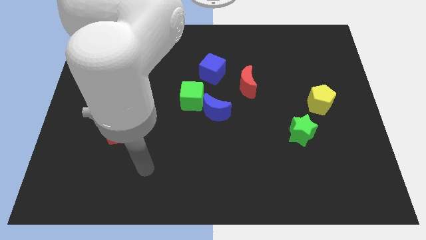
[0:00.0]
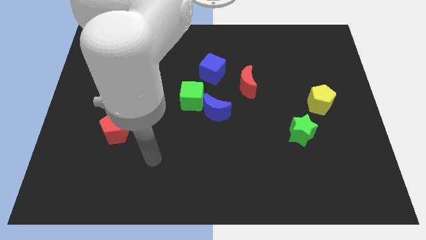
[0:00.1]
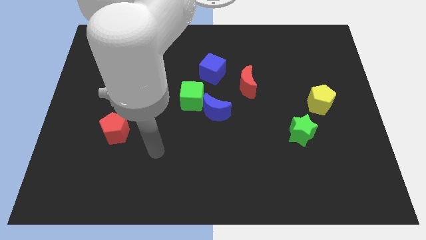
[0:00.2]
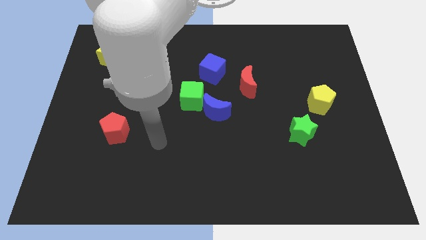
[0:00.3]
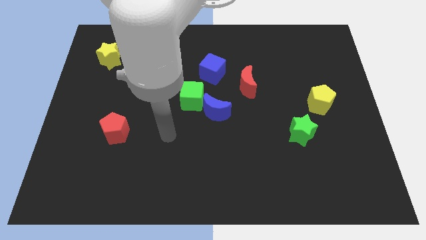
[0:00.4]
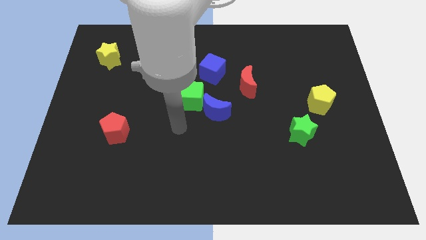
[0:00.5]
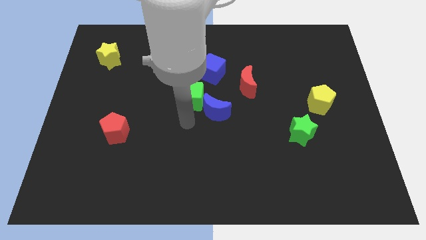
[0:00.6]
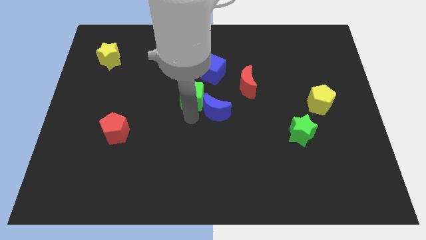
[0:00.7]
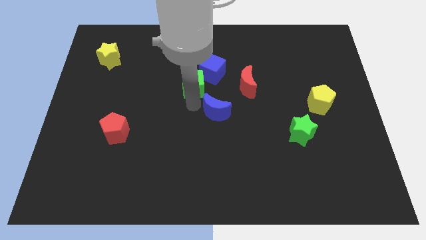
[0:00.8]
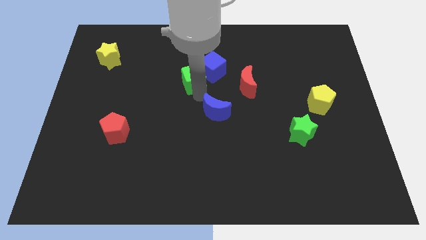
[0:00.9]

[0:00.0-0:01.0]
pull the blue moon apart from the green cube

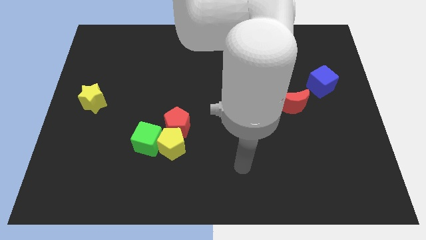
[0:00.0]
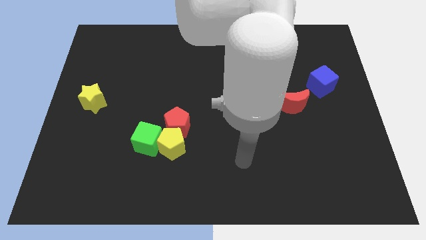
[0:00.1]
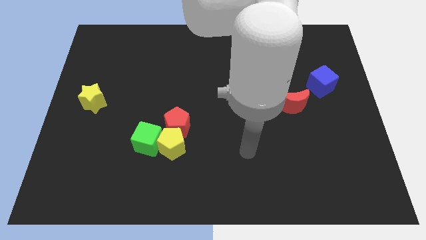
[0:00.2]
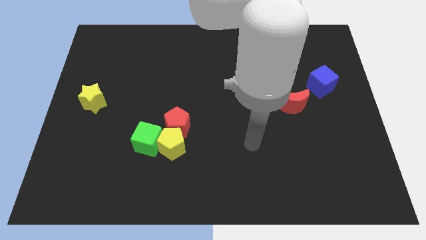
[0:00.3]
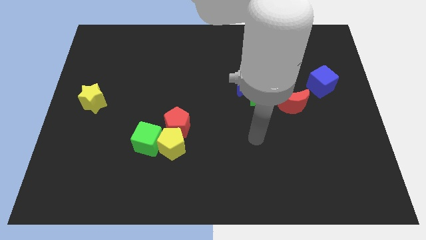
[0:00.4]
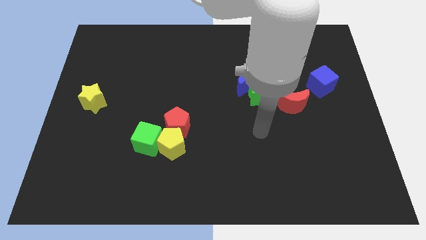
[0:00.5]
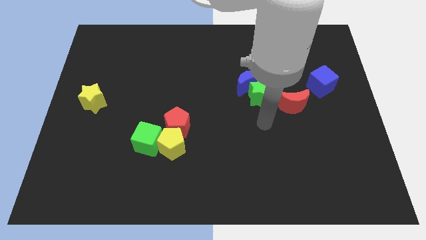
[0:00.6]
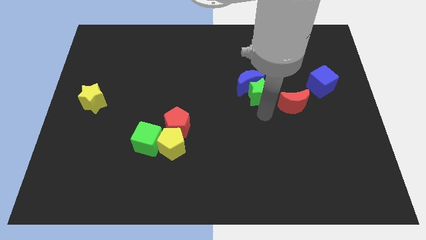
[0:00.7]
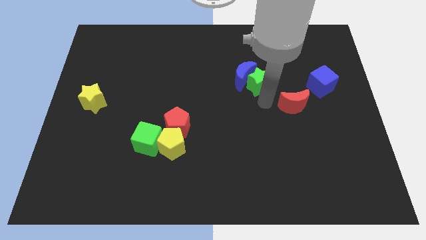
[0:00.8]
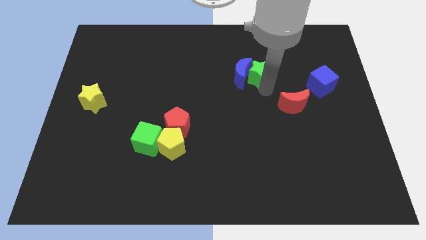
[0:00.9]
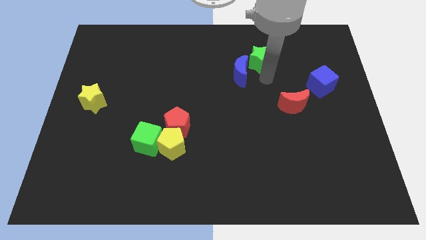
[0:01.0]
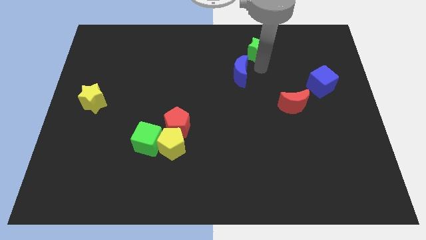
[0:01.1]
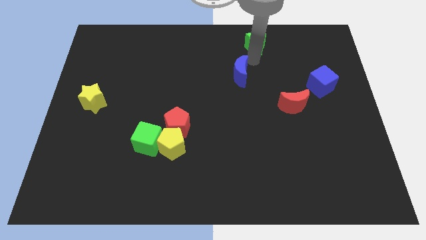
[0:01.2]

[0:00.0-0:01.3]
pull the blue moon apart from the green star

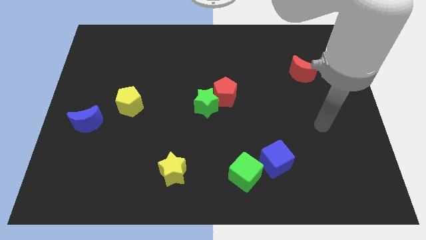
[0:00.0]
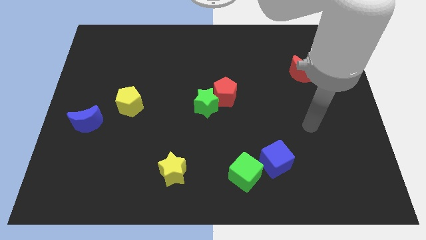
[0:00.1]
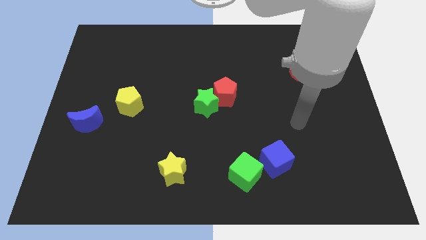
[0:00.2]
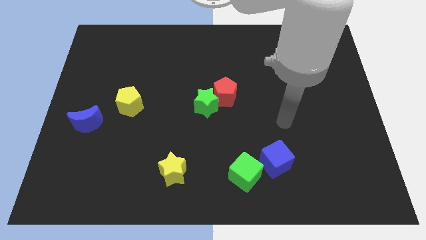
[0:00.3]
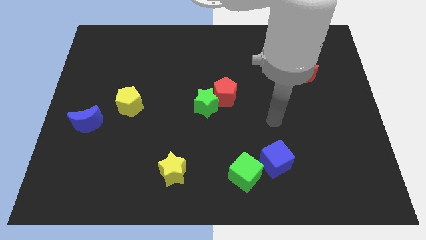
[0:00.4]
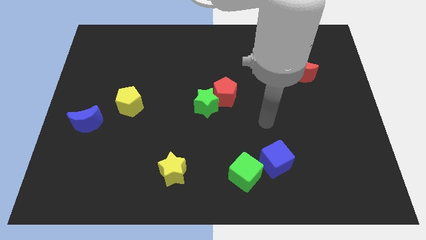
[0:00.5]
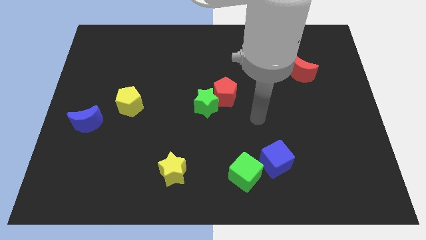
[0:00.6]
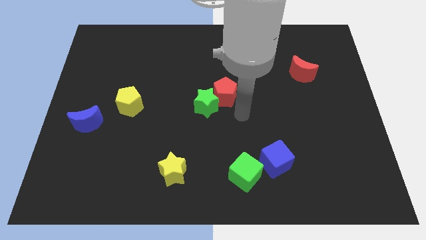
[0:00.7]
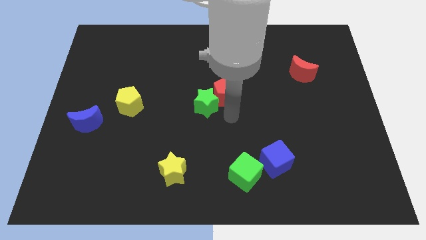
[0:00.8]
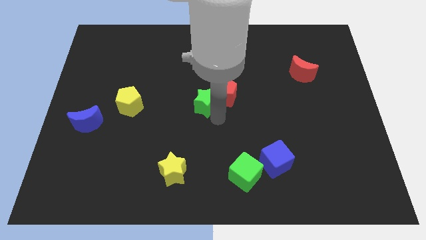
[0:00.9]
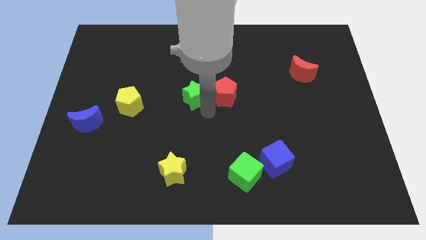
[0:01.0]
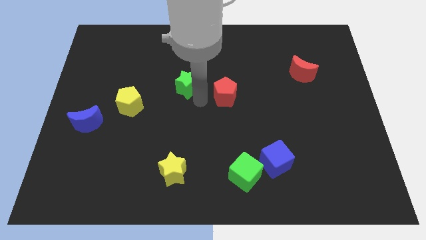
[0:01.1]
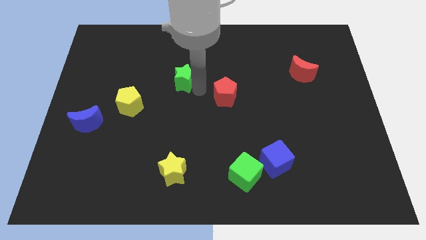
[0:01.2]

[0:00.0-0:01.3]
move the red pentagon away from the green star

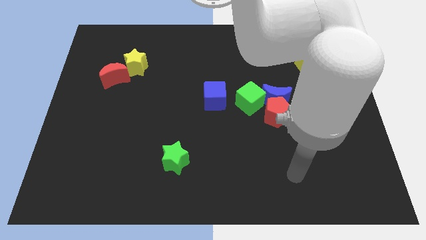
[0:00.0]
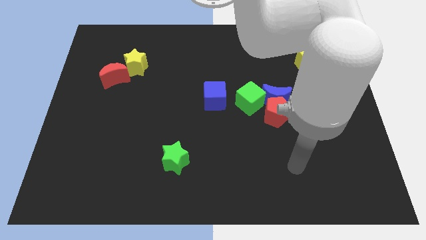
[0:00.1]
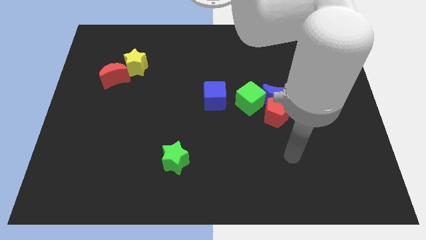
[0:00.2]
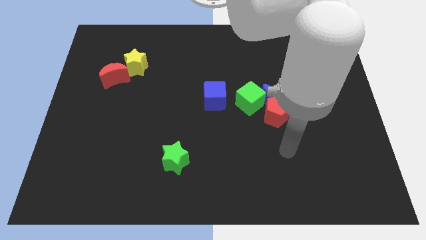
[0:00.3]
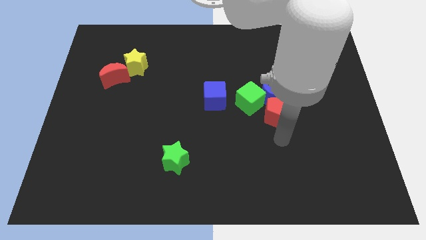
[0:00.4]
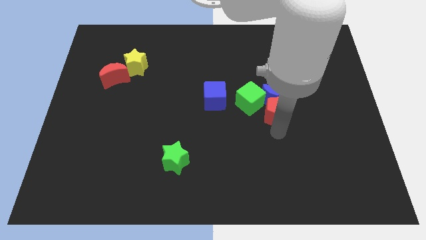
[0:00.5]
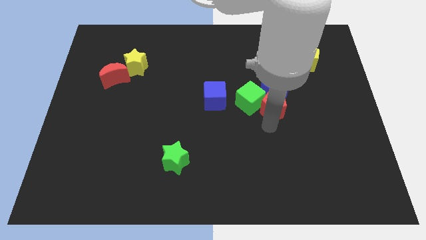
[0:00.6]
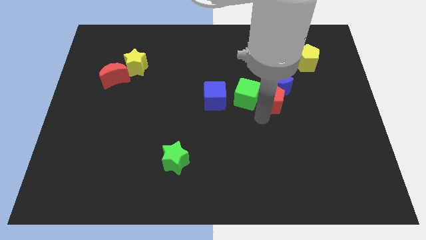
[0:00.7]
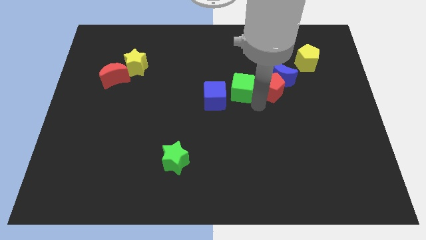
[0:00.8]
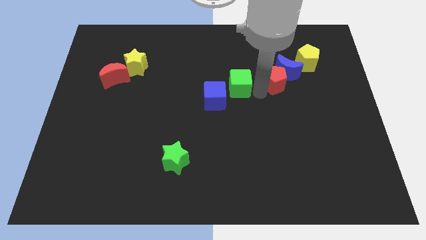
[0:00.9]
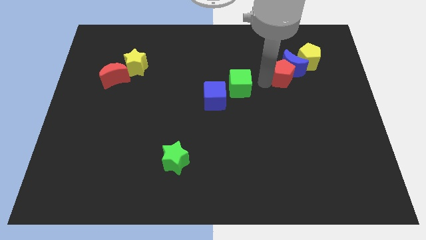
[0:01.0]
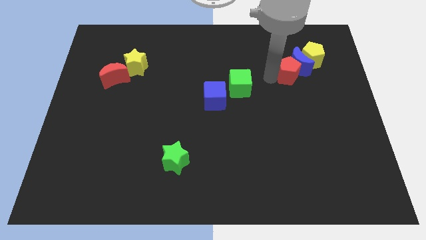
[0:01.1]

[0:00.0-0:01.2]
separate the blue moon from the red pentagon and green cube

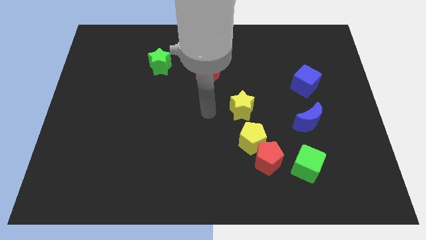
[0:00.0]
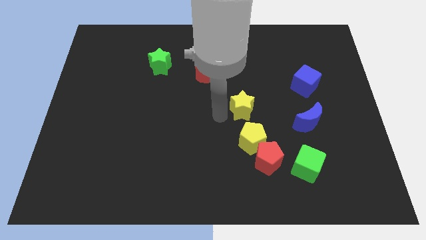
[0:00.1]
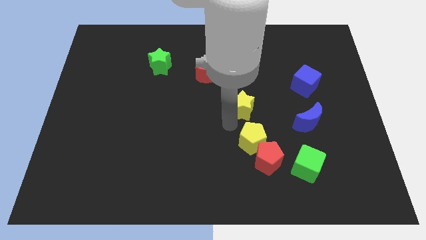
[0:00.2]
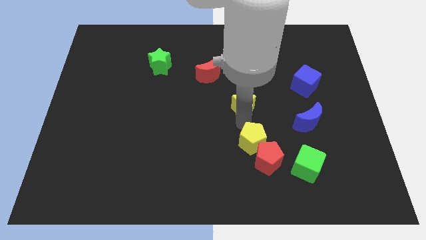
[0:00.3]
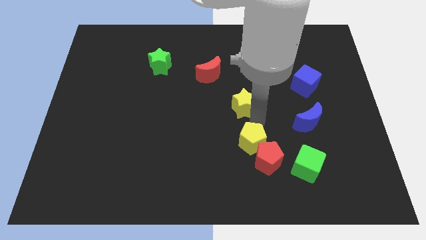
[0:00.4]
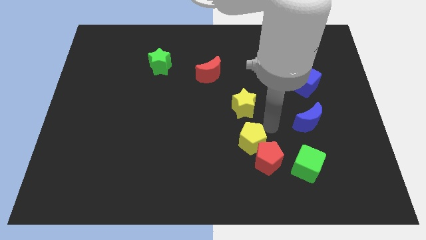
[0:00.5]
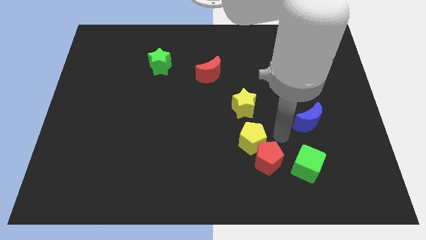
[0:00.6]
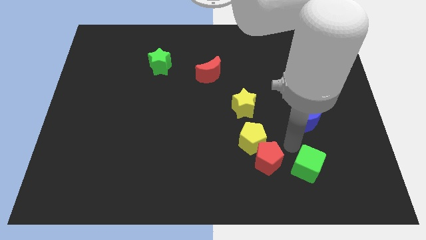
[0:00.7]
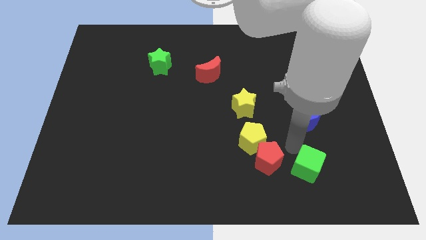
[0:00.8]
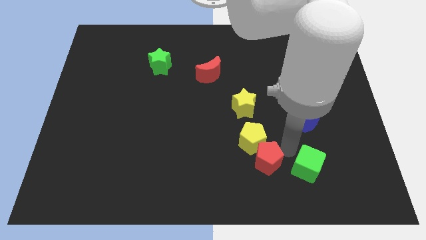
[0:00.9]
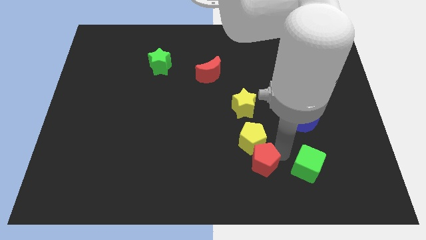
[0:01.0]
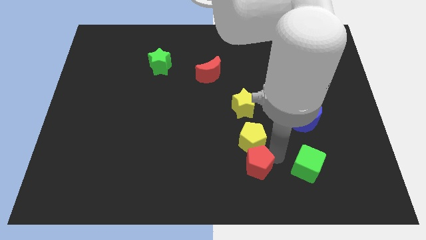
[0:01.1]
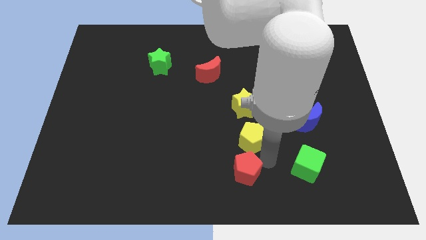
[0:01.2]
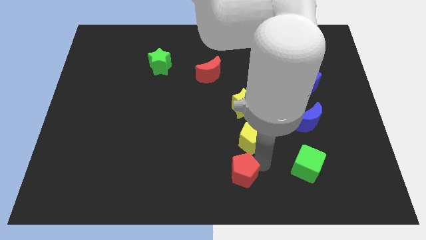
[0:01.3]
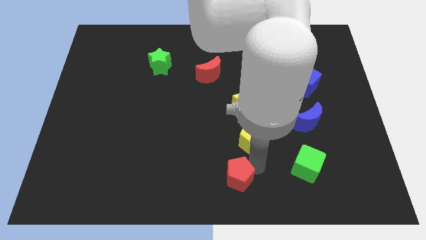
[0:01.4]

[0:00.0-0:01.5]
move the red pentagon away from the yellow pentagon and green cube

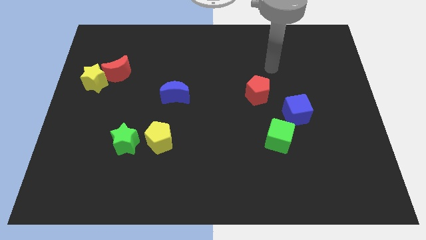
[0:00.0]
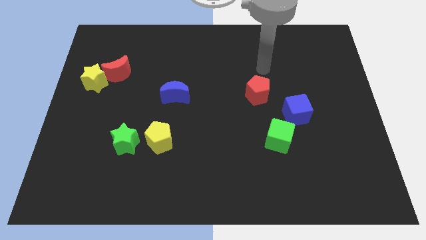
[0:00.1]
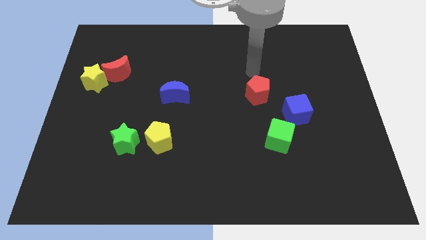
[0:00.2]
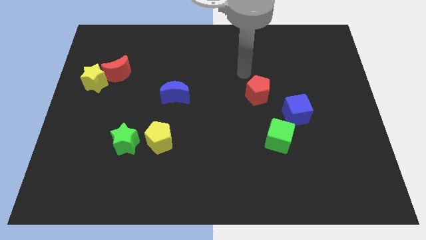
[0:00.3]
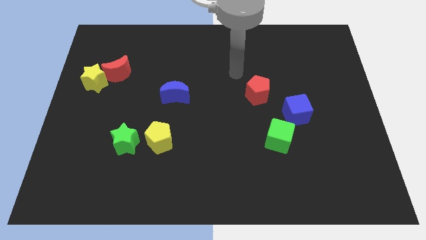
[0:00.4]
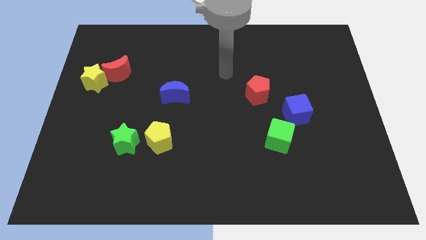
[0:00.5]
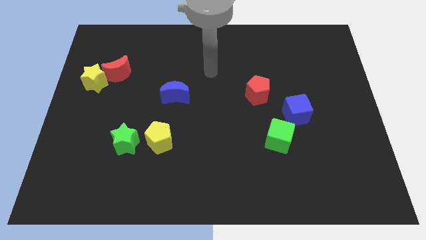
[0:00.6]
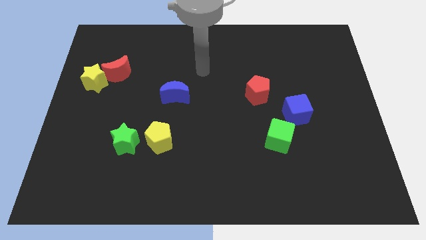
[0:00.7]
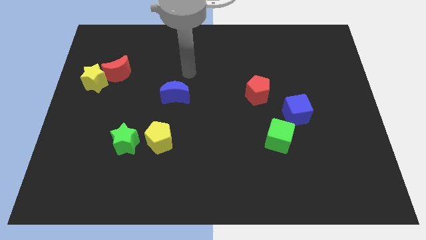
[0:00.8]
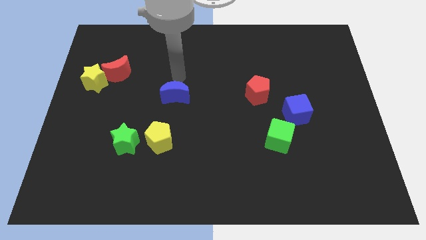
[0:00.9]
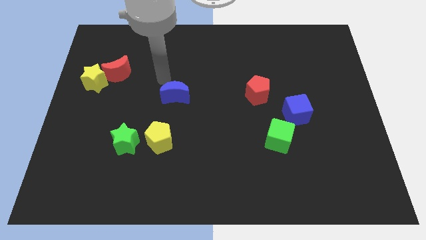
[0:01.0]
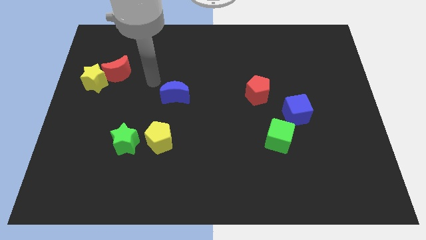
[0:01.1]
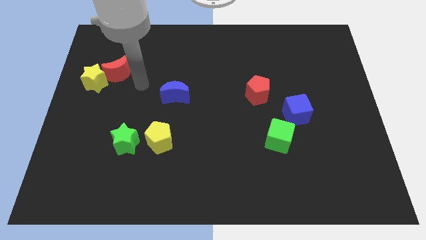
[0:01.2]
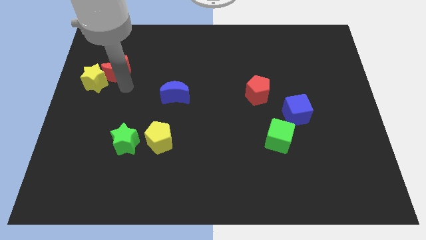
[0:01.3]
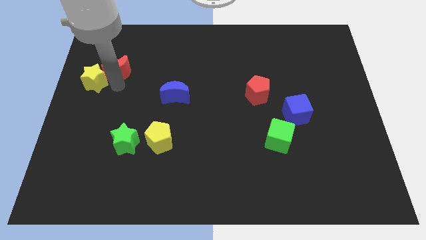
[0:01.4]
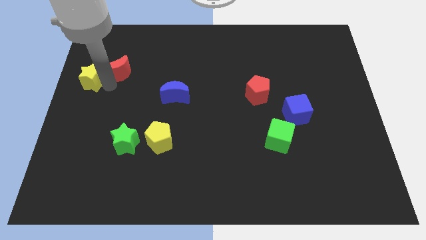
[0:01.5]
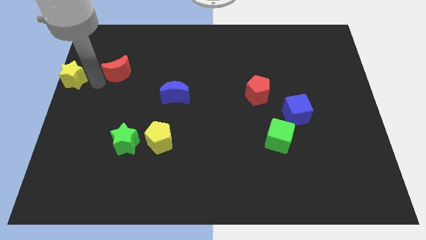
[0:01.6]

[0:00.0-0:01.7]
pull the red moon apart from the yellow star

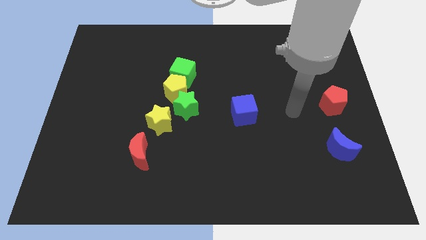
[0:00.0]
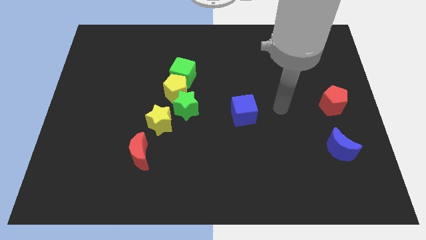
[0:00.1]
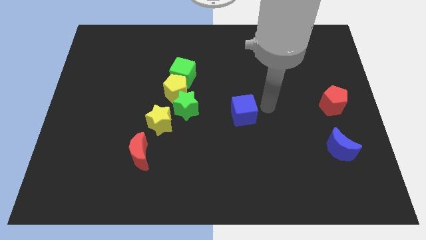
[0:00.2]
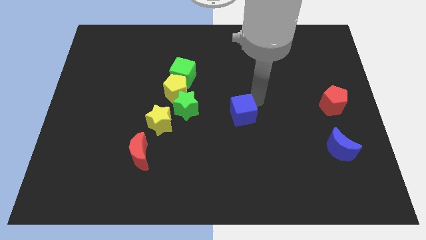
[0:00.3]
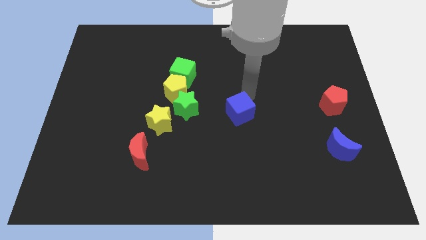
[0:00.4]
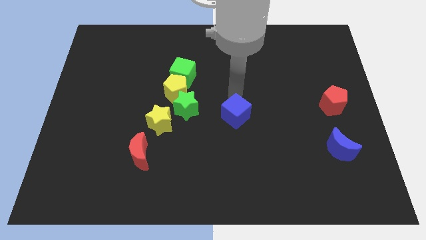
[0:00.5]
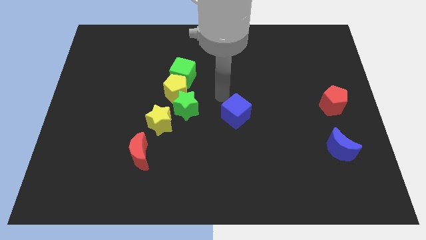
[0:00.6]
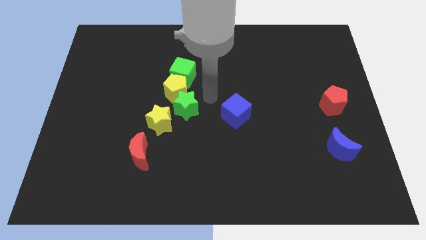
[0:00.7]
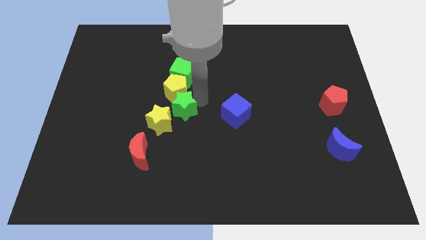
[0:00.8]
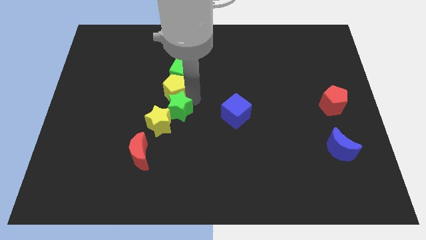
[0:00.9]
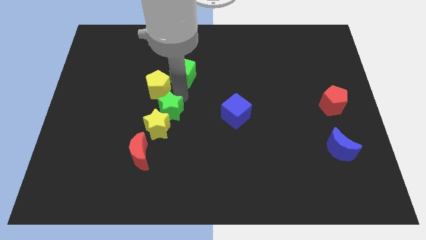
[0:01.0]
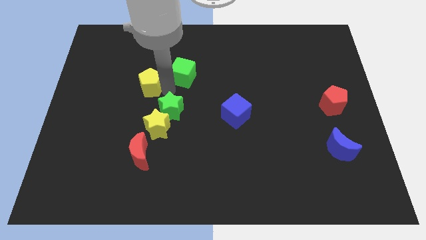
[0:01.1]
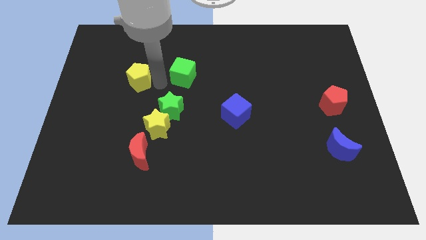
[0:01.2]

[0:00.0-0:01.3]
separate the green cube from the yellow pentagon
